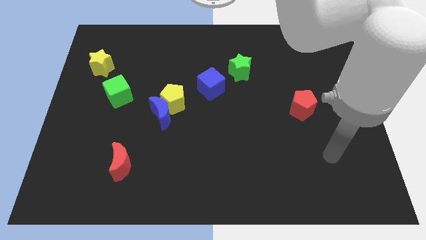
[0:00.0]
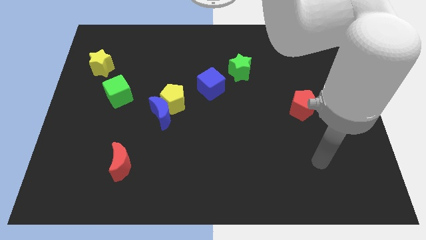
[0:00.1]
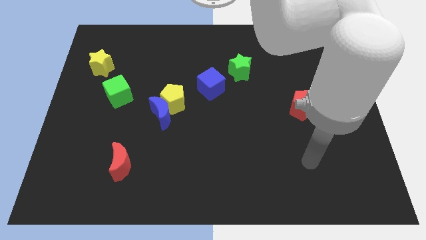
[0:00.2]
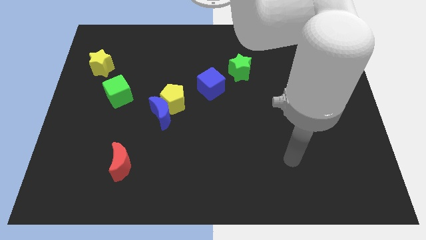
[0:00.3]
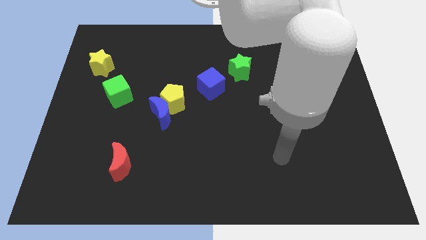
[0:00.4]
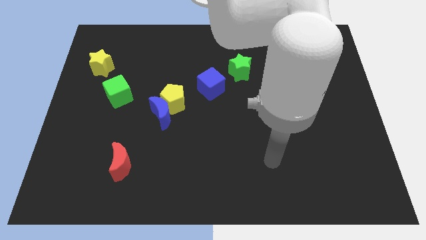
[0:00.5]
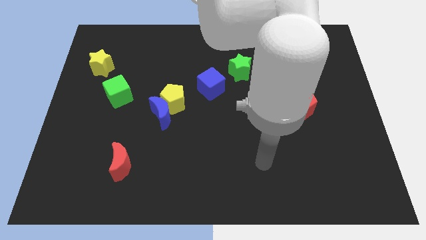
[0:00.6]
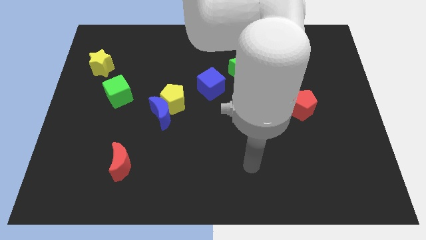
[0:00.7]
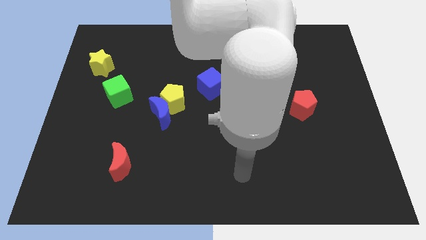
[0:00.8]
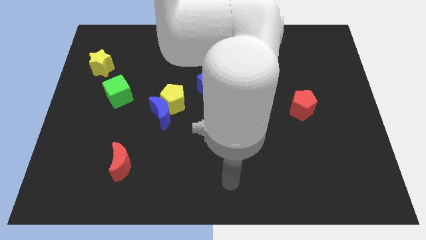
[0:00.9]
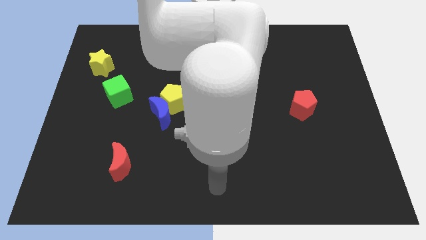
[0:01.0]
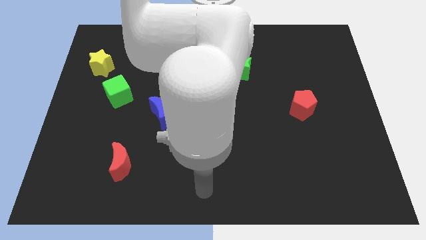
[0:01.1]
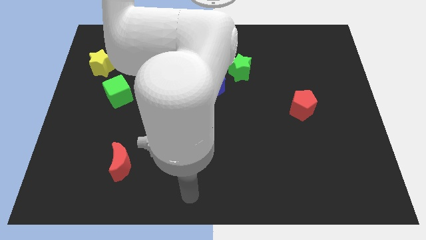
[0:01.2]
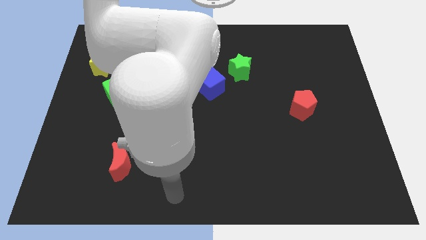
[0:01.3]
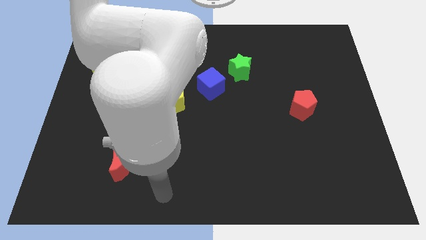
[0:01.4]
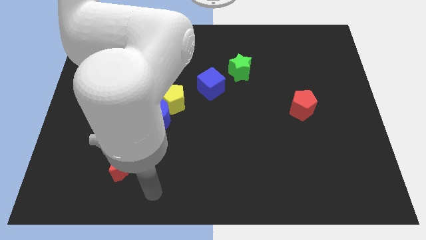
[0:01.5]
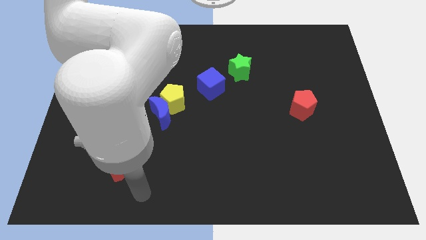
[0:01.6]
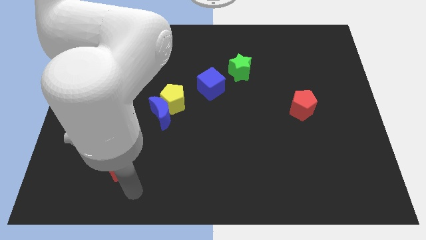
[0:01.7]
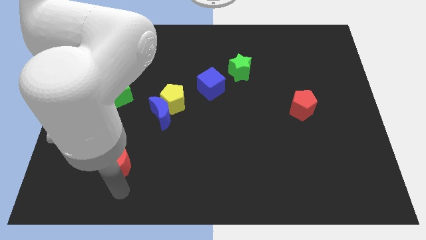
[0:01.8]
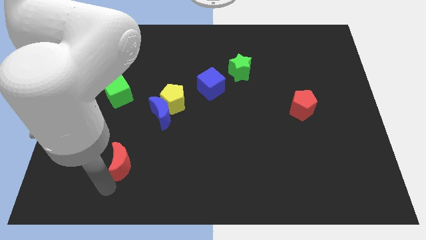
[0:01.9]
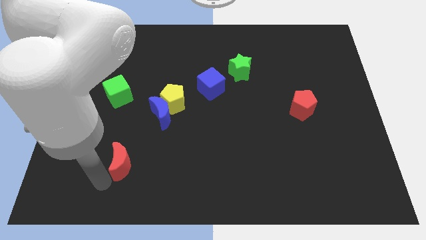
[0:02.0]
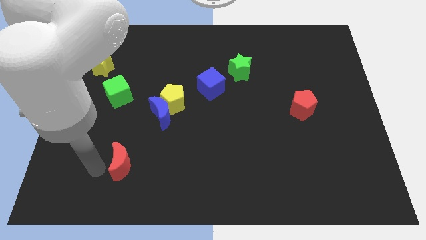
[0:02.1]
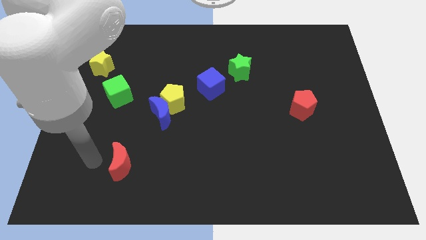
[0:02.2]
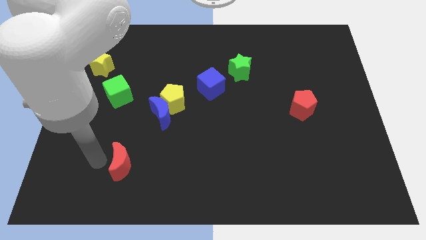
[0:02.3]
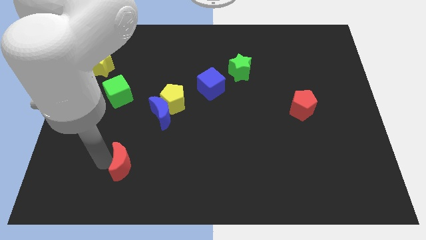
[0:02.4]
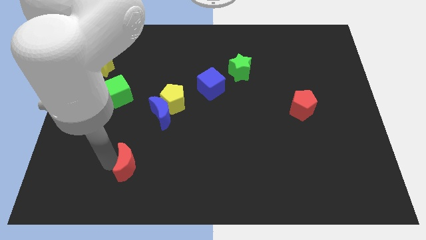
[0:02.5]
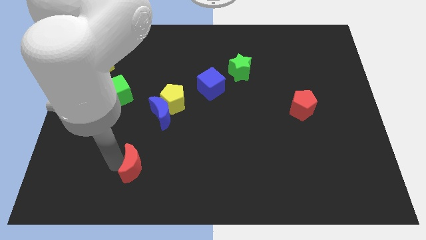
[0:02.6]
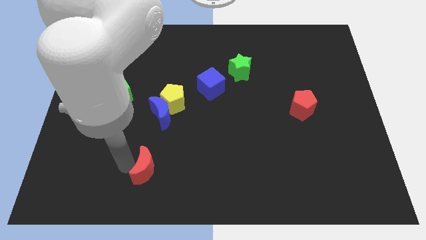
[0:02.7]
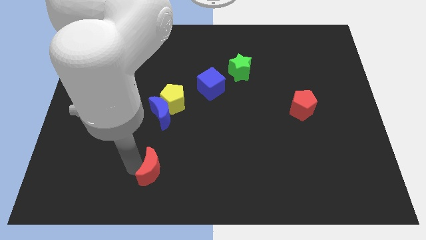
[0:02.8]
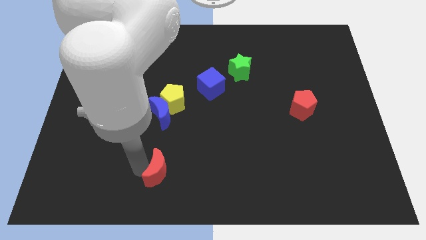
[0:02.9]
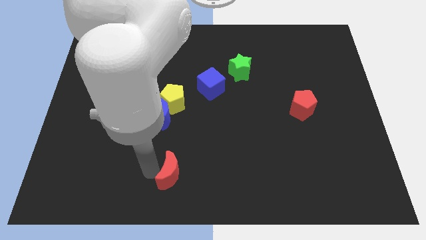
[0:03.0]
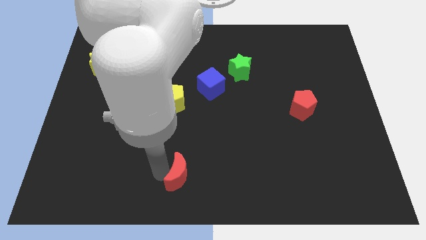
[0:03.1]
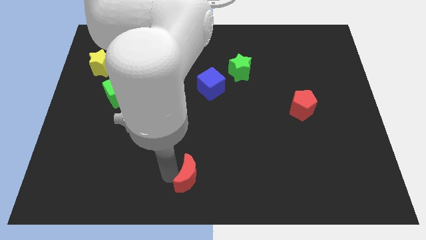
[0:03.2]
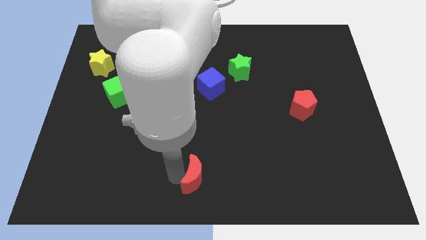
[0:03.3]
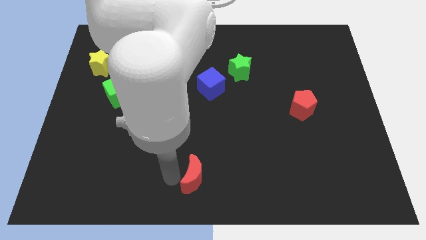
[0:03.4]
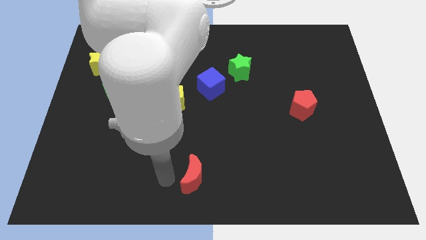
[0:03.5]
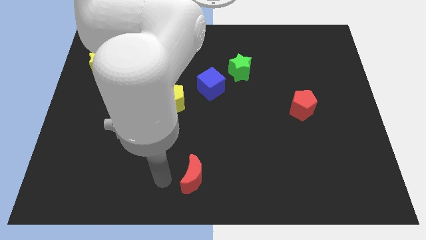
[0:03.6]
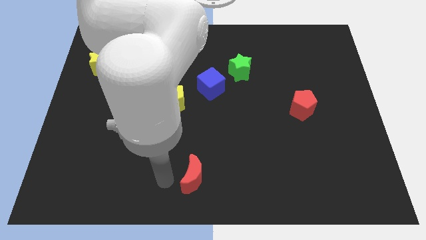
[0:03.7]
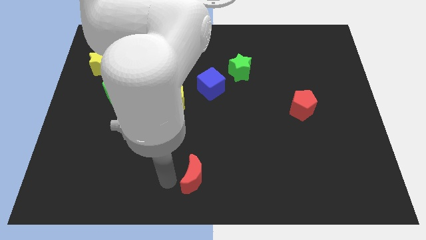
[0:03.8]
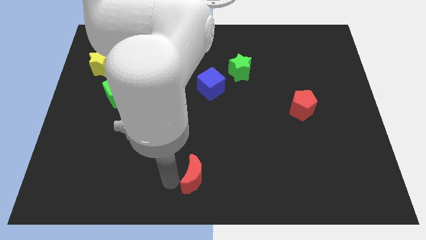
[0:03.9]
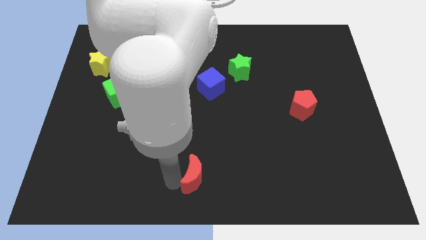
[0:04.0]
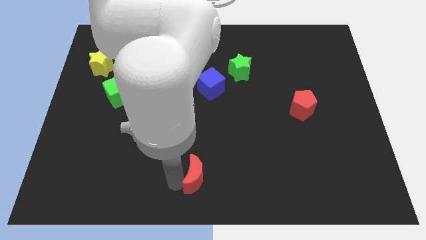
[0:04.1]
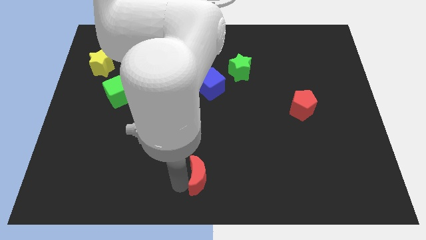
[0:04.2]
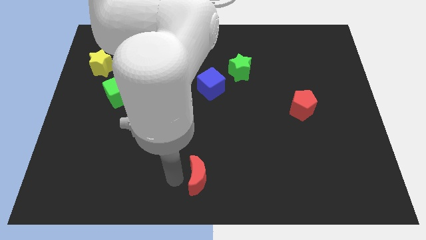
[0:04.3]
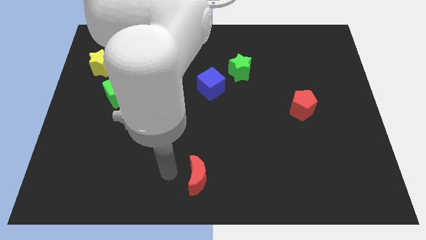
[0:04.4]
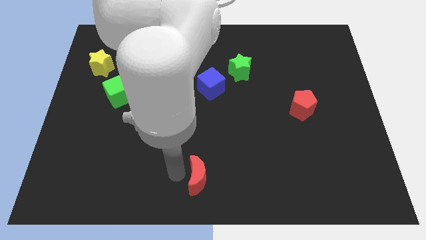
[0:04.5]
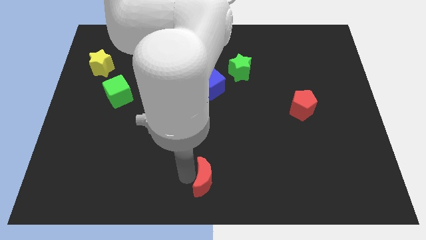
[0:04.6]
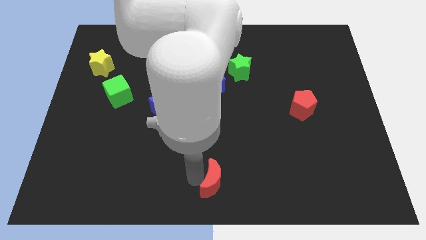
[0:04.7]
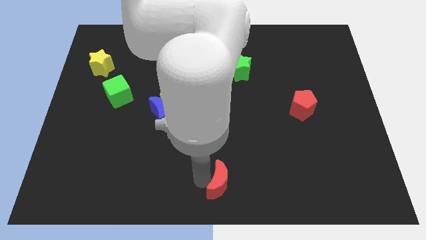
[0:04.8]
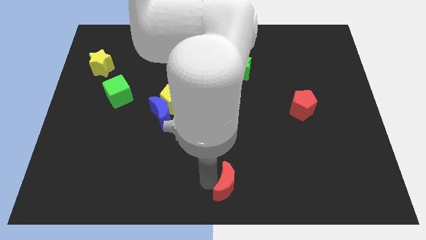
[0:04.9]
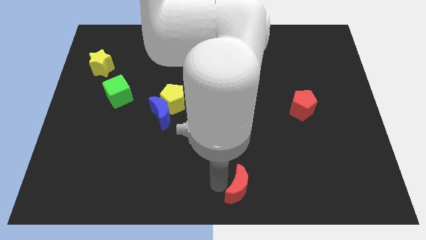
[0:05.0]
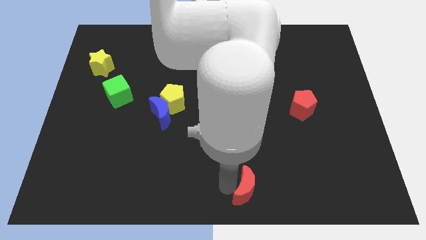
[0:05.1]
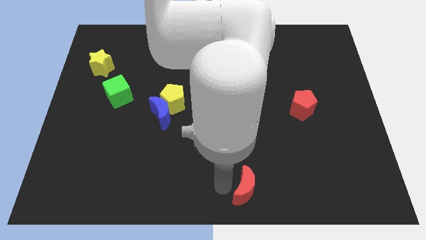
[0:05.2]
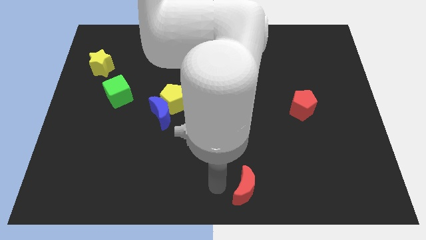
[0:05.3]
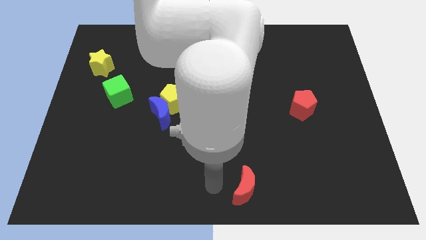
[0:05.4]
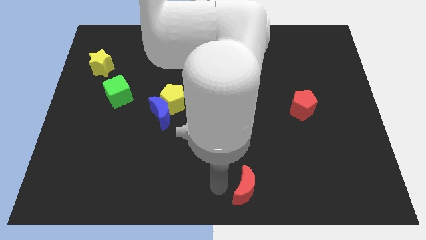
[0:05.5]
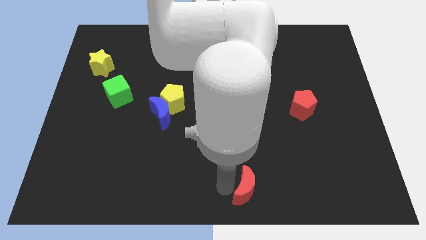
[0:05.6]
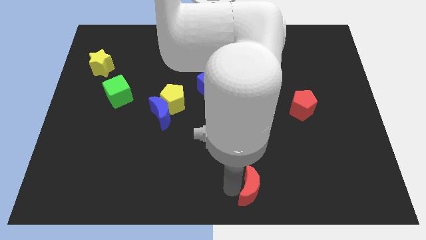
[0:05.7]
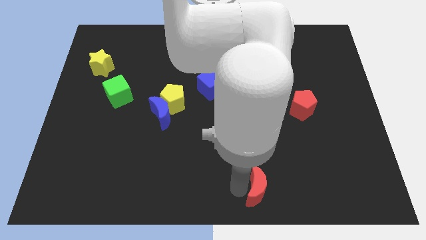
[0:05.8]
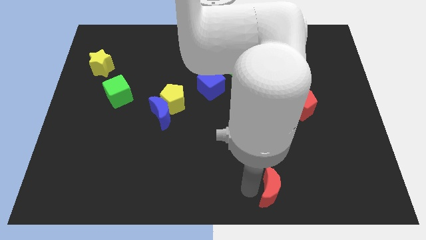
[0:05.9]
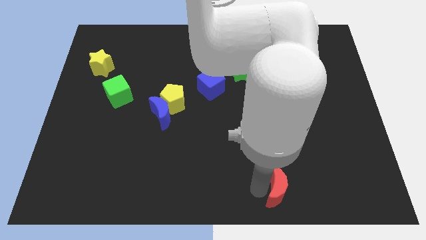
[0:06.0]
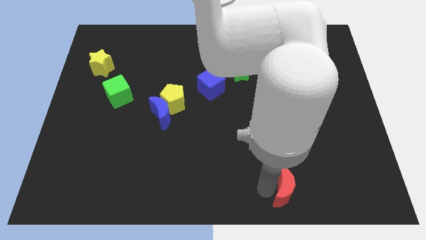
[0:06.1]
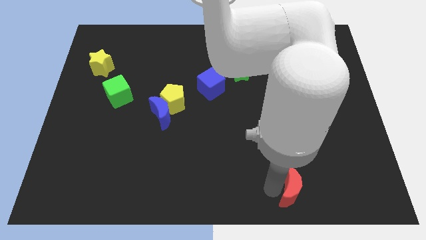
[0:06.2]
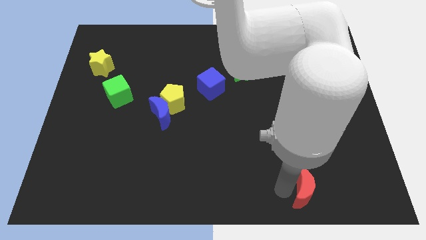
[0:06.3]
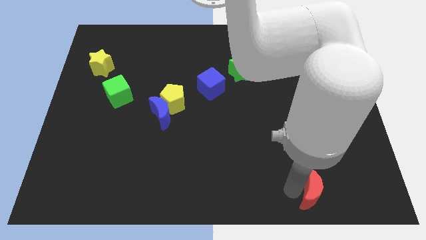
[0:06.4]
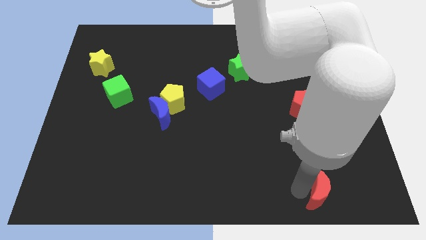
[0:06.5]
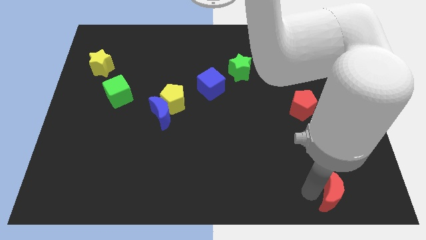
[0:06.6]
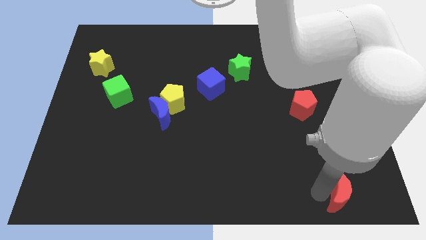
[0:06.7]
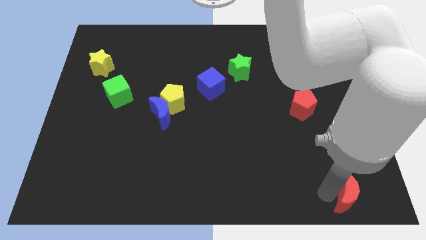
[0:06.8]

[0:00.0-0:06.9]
move the red moon to the bottom right of the board
